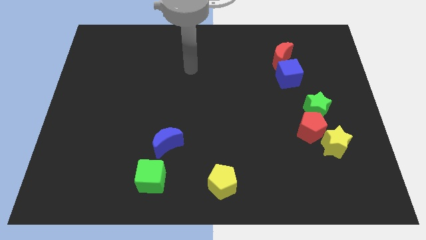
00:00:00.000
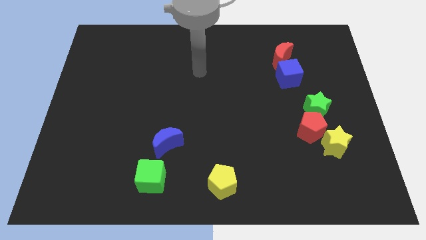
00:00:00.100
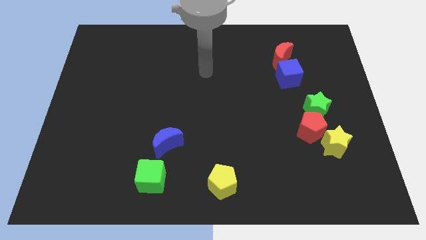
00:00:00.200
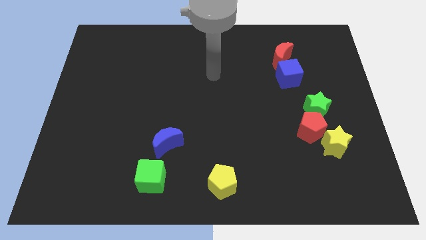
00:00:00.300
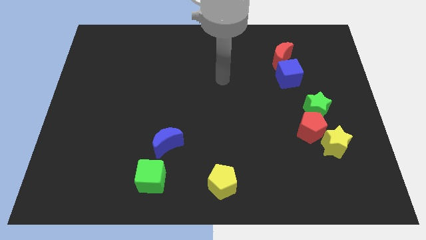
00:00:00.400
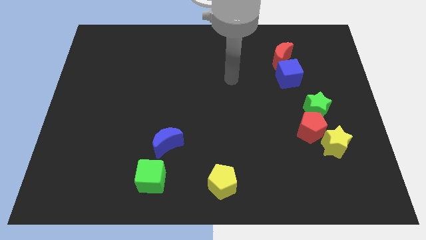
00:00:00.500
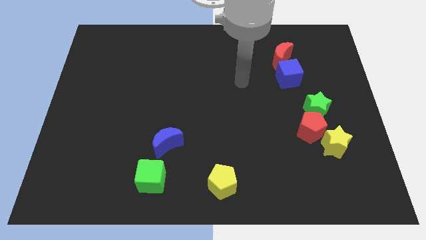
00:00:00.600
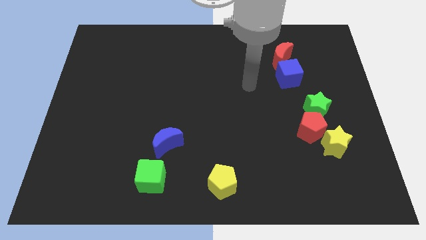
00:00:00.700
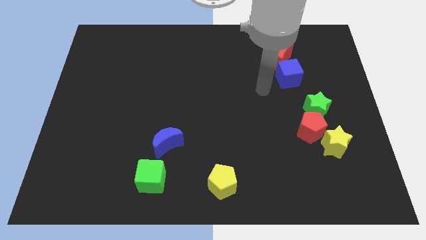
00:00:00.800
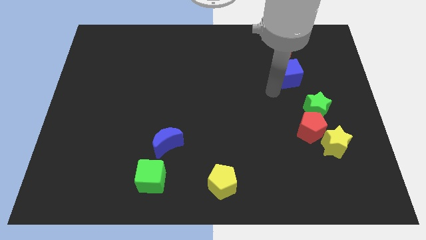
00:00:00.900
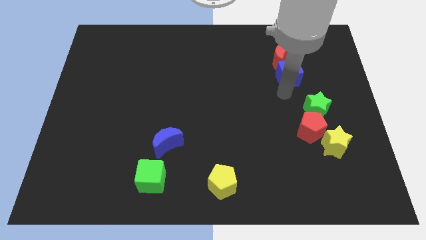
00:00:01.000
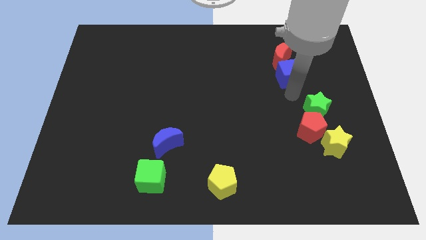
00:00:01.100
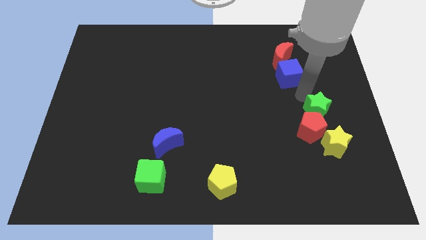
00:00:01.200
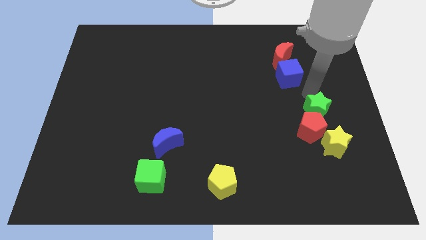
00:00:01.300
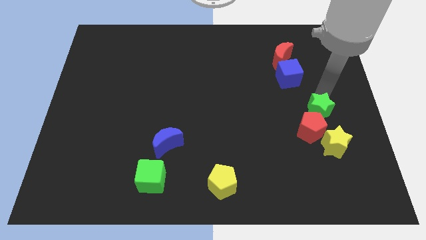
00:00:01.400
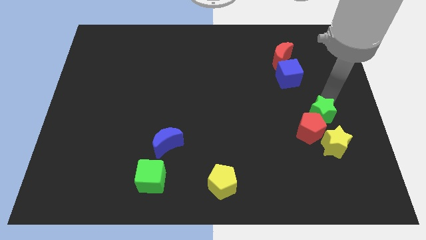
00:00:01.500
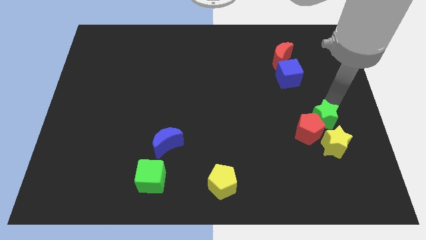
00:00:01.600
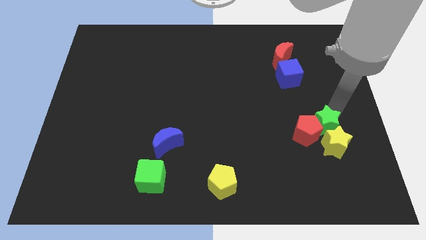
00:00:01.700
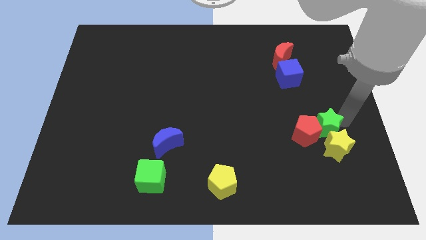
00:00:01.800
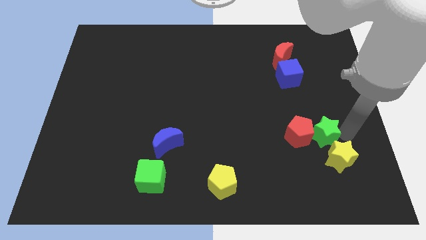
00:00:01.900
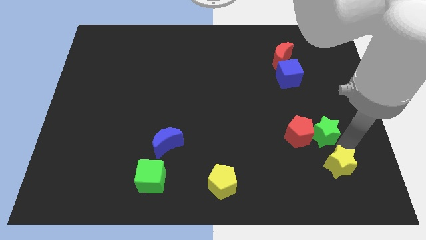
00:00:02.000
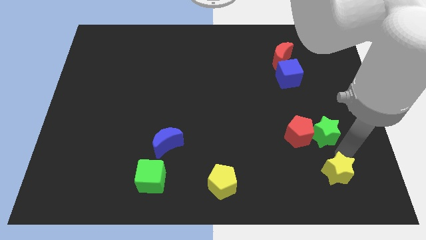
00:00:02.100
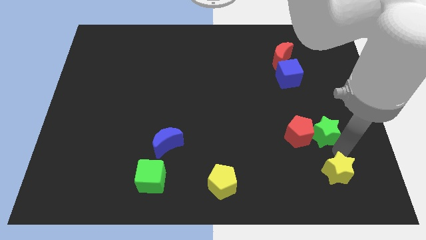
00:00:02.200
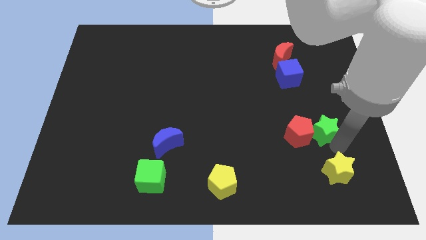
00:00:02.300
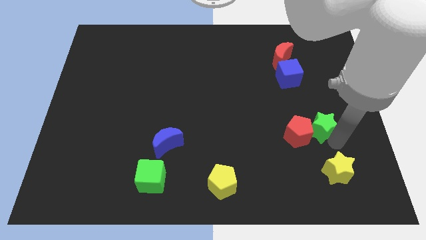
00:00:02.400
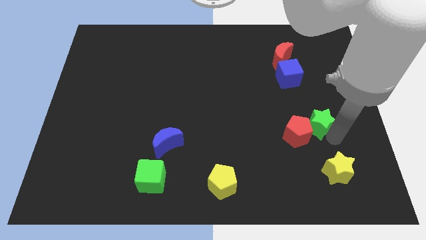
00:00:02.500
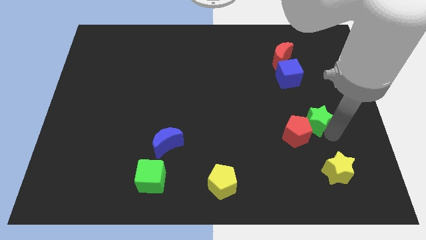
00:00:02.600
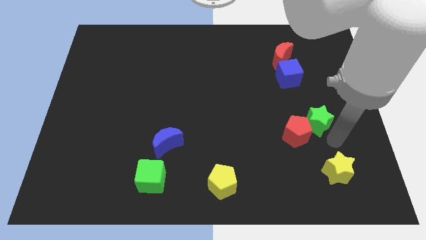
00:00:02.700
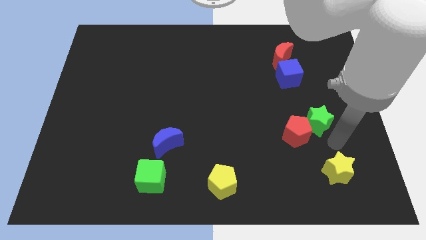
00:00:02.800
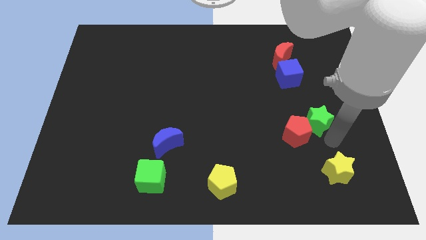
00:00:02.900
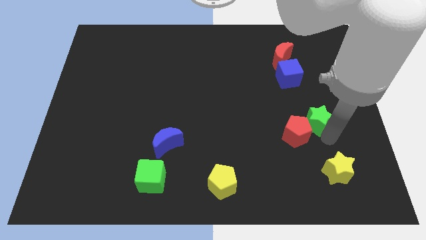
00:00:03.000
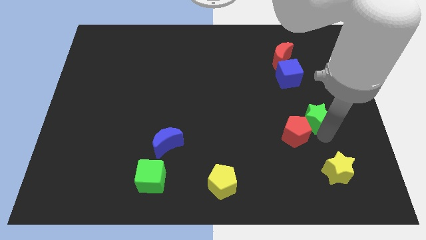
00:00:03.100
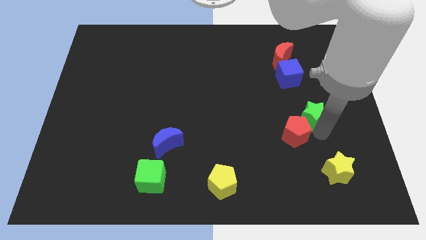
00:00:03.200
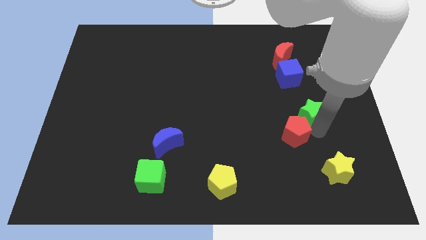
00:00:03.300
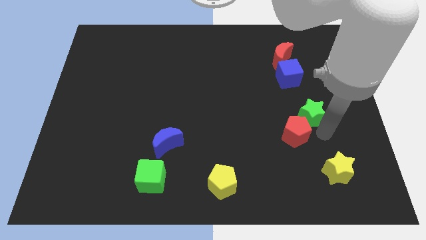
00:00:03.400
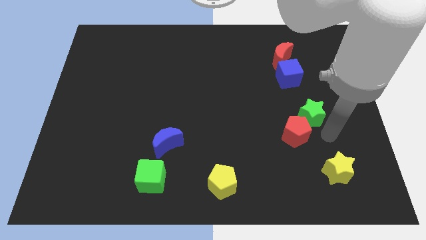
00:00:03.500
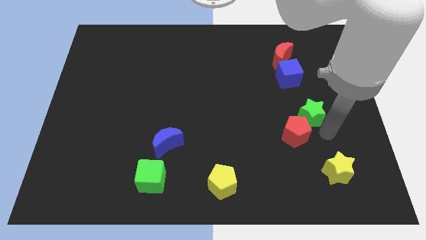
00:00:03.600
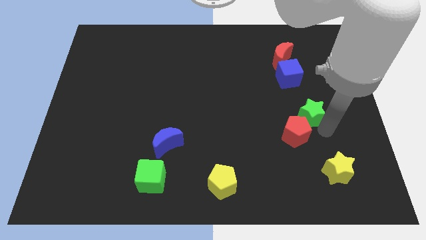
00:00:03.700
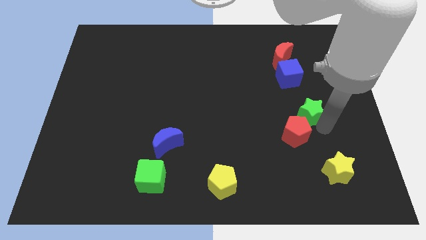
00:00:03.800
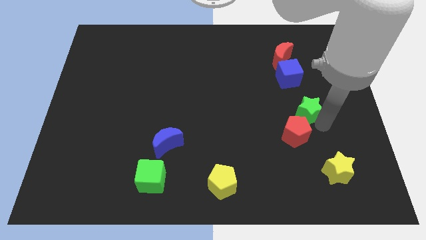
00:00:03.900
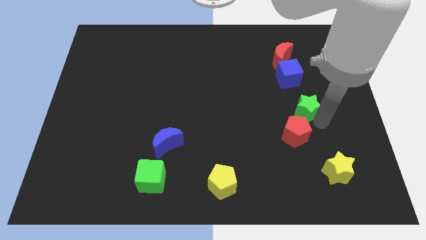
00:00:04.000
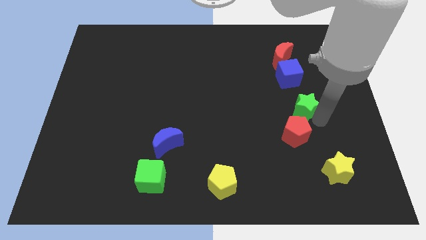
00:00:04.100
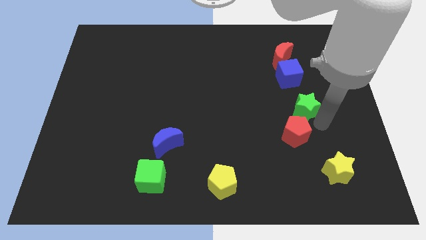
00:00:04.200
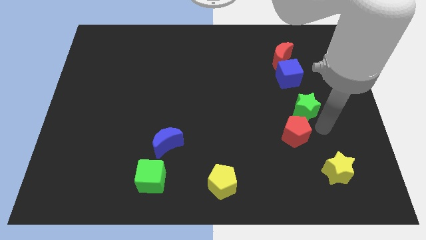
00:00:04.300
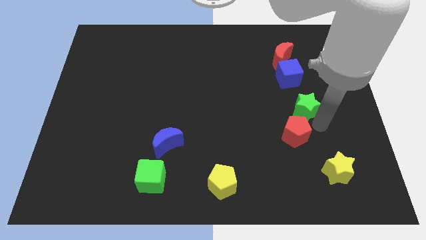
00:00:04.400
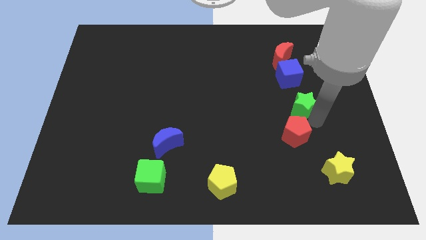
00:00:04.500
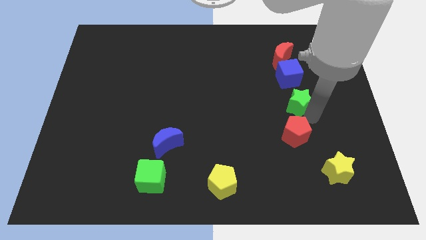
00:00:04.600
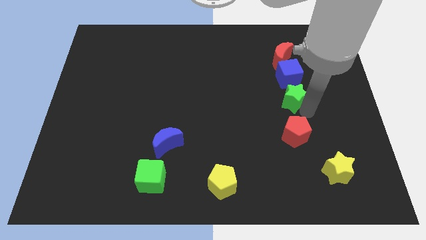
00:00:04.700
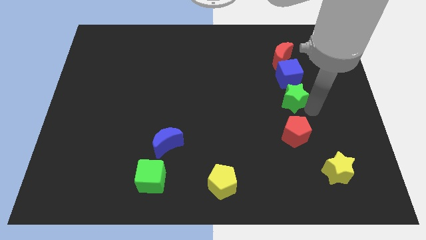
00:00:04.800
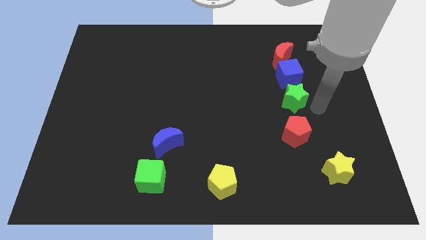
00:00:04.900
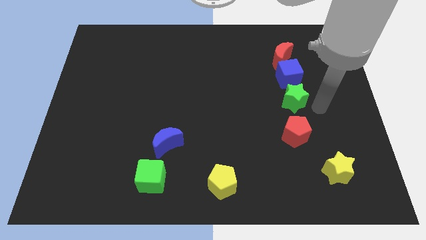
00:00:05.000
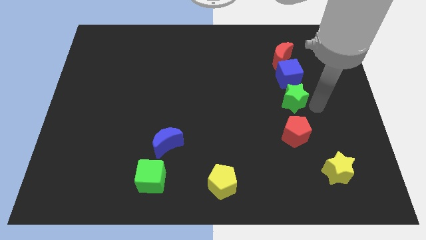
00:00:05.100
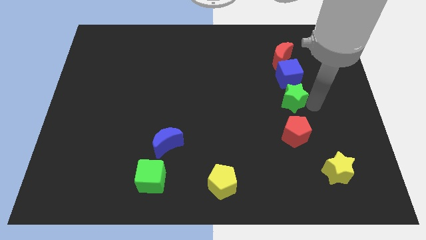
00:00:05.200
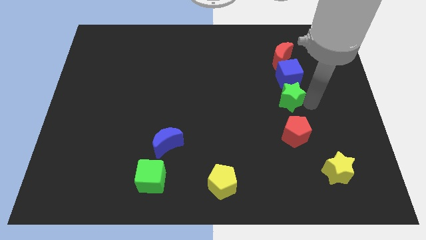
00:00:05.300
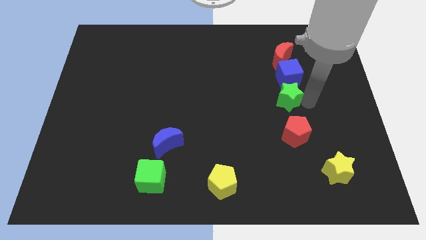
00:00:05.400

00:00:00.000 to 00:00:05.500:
slide the green star up and to the left slightly

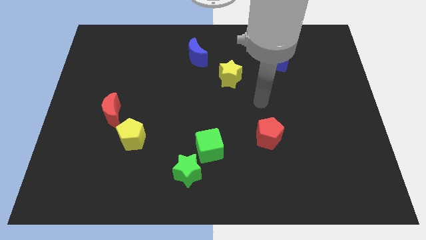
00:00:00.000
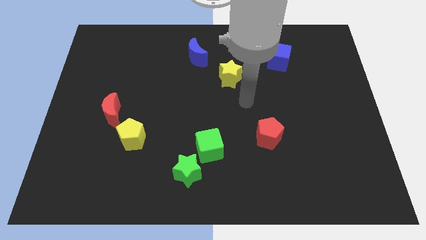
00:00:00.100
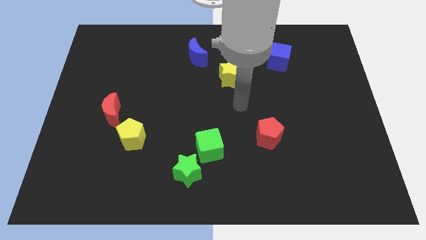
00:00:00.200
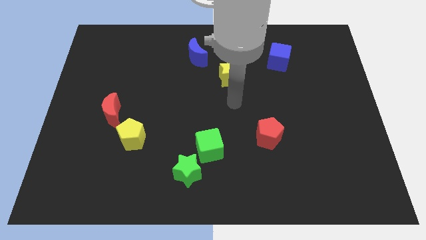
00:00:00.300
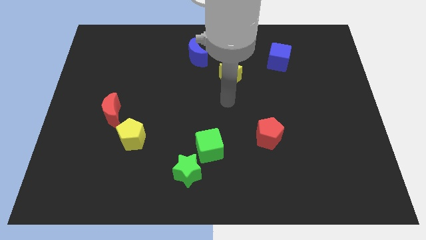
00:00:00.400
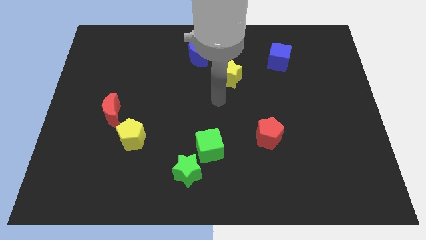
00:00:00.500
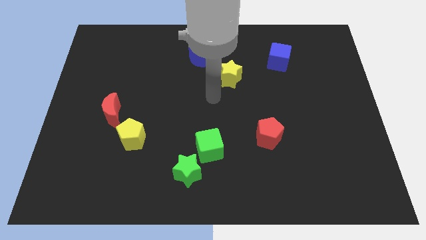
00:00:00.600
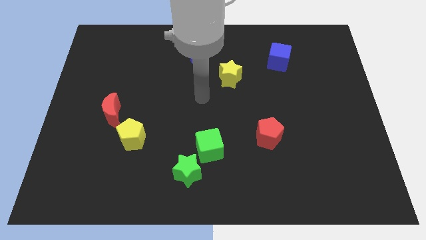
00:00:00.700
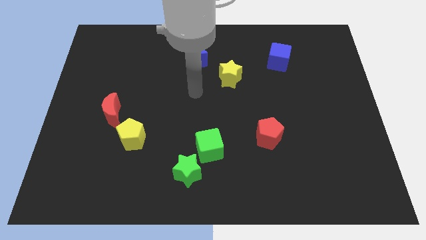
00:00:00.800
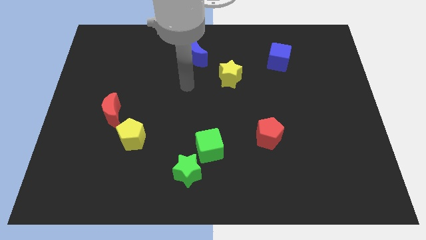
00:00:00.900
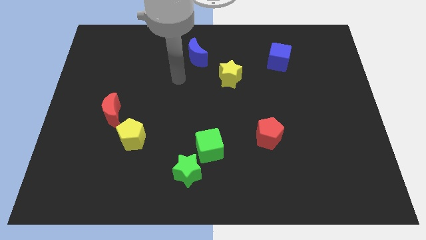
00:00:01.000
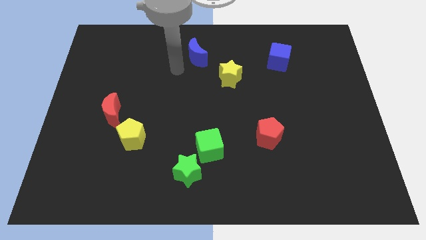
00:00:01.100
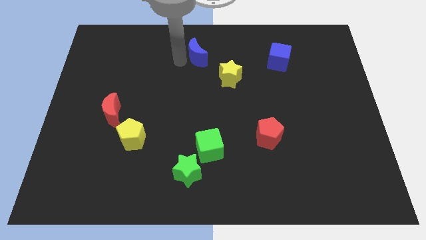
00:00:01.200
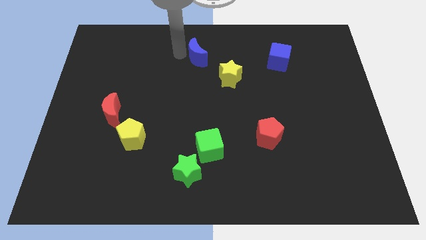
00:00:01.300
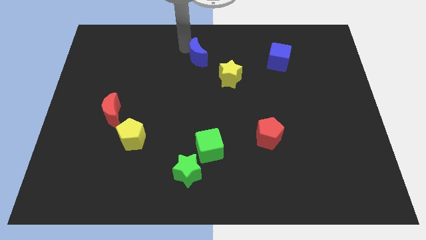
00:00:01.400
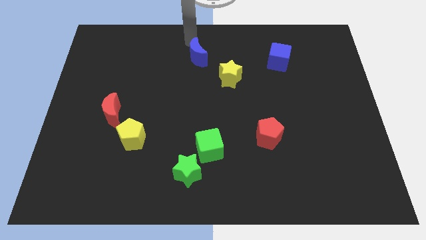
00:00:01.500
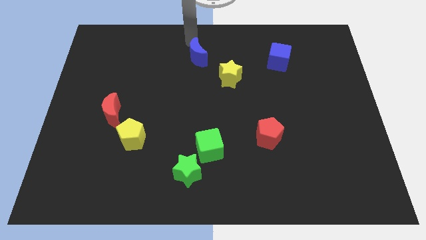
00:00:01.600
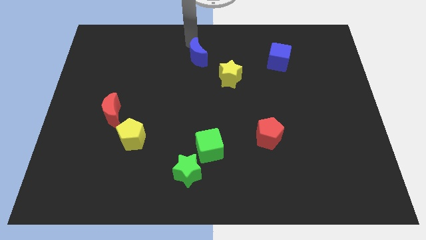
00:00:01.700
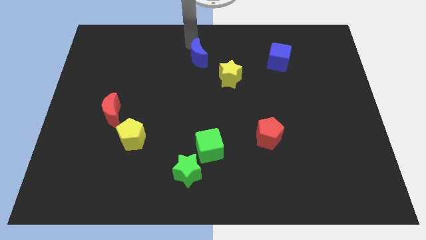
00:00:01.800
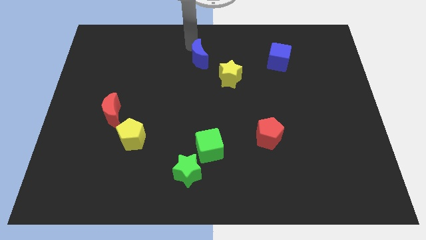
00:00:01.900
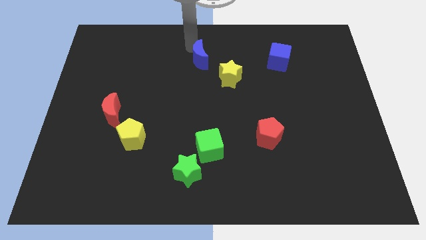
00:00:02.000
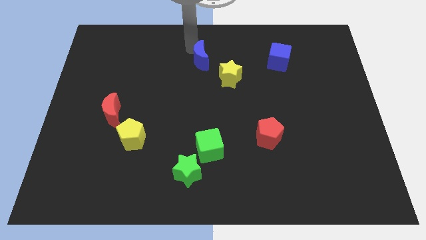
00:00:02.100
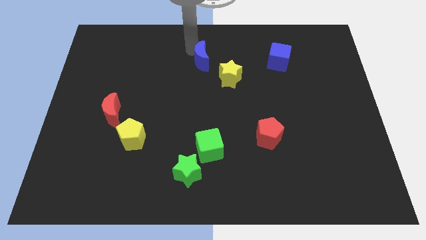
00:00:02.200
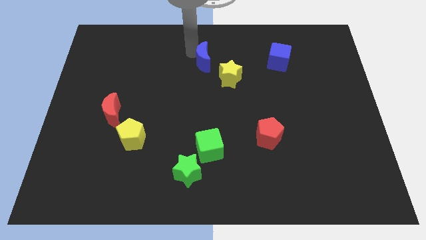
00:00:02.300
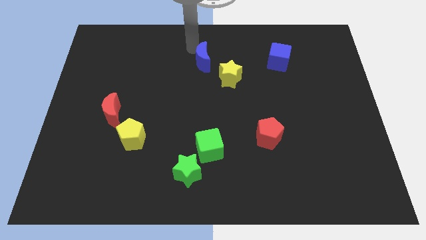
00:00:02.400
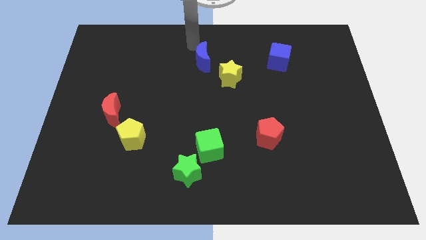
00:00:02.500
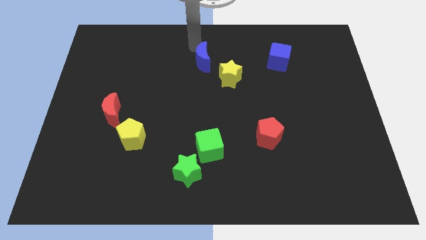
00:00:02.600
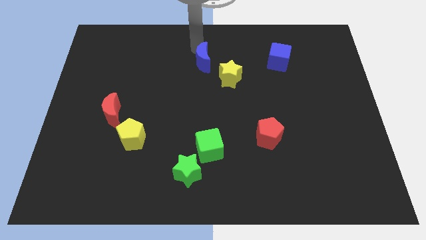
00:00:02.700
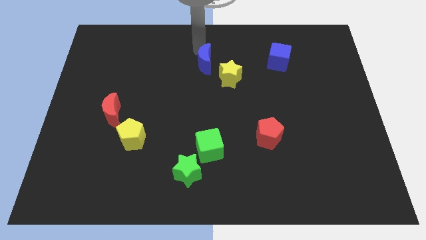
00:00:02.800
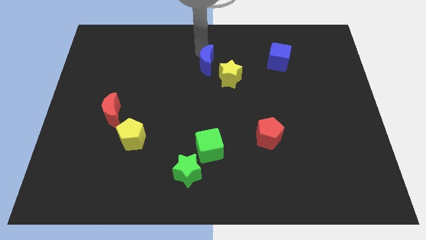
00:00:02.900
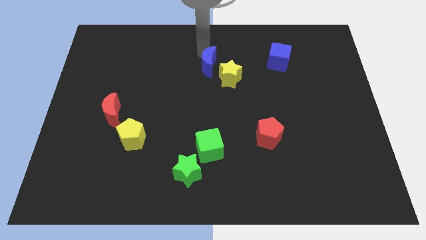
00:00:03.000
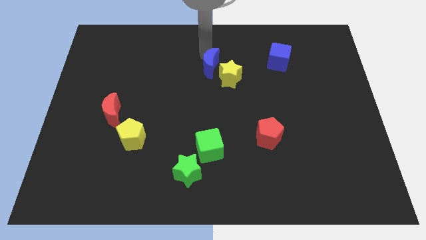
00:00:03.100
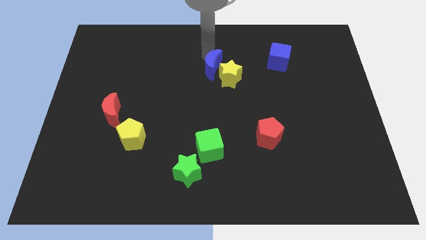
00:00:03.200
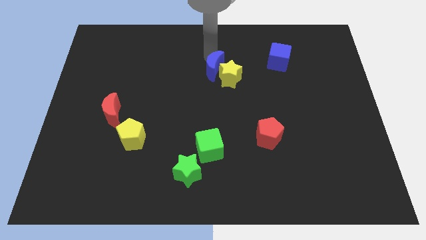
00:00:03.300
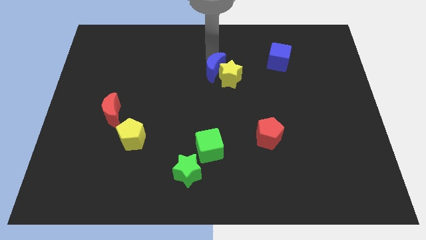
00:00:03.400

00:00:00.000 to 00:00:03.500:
move the blue moon diagonally down and to the right a bit
